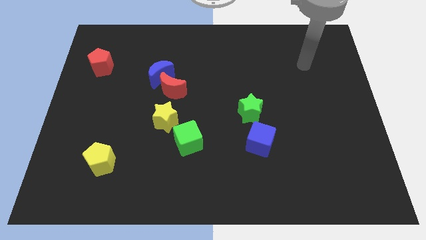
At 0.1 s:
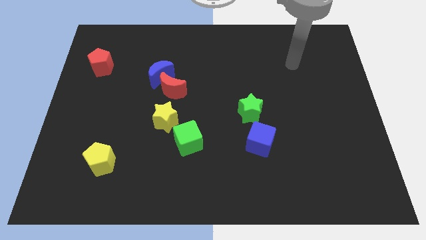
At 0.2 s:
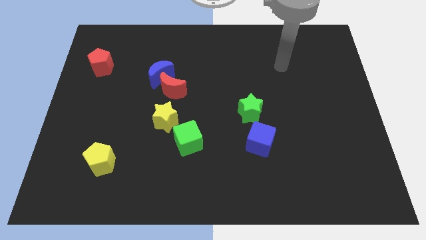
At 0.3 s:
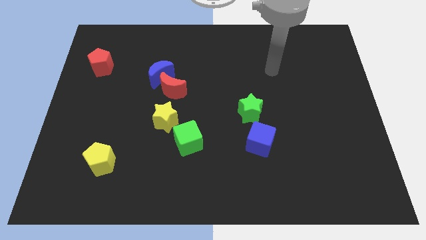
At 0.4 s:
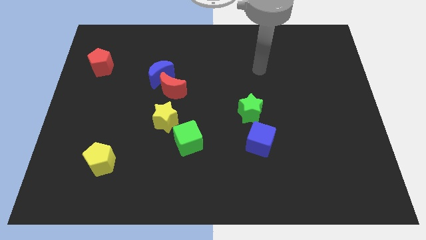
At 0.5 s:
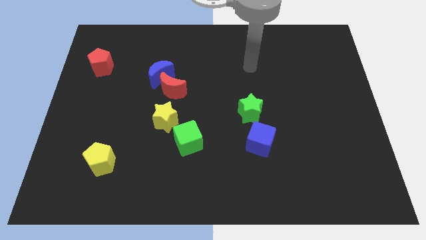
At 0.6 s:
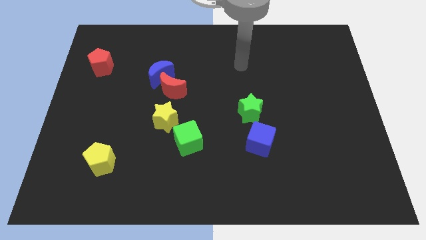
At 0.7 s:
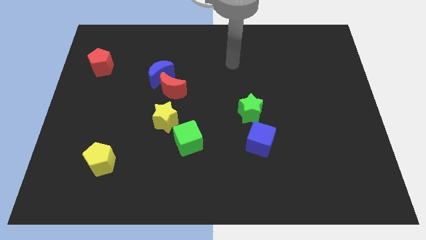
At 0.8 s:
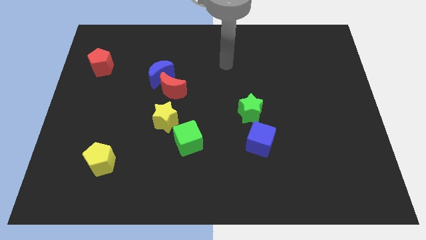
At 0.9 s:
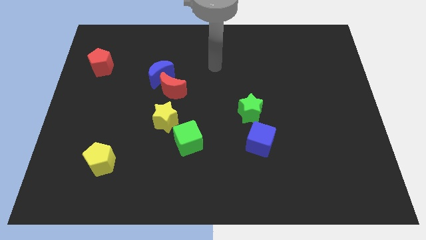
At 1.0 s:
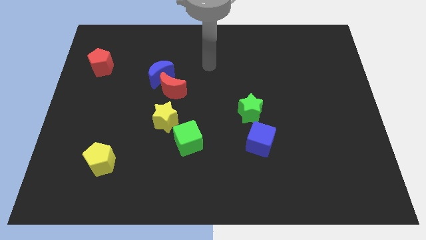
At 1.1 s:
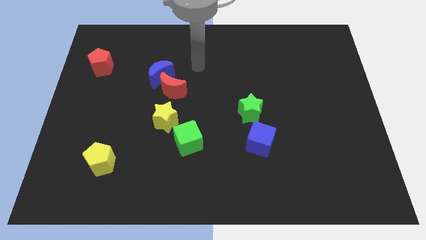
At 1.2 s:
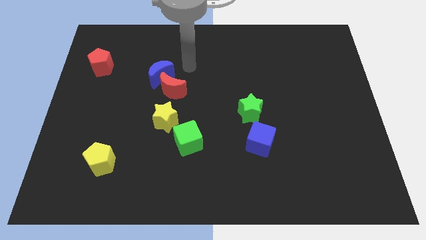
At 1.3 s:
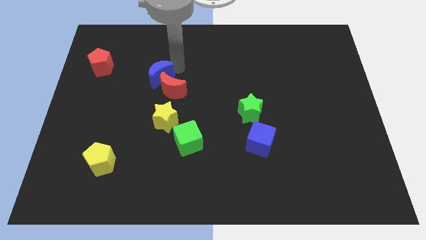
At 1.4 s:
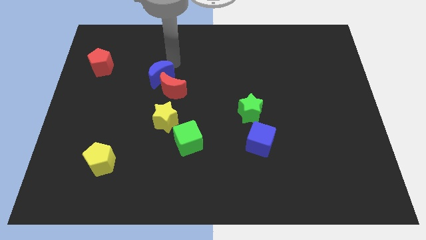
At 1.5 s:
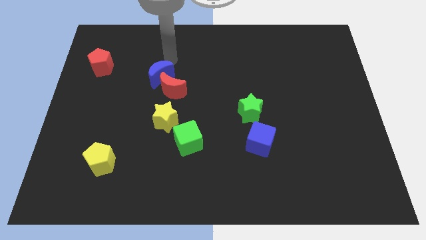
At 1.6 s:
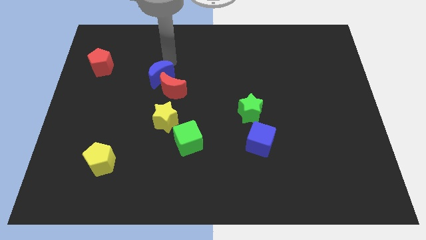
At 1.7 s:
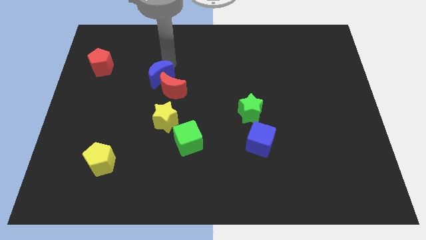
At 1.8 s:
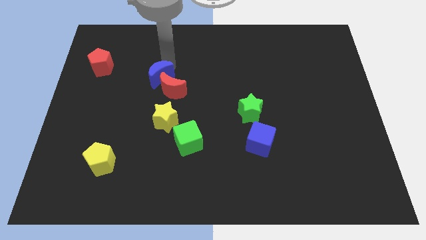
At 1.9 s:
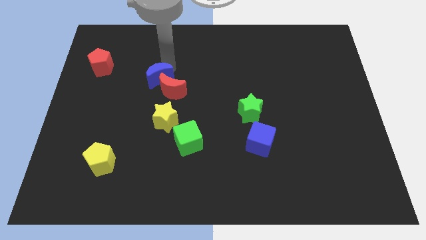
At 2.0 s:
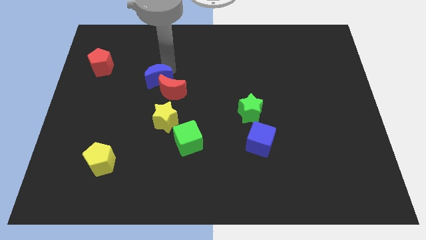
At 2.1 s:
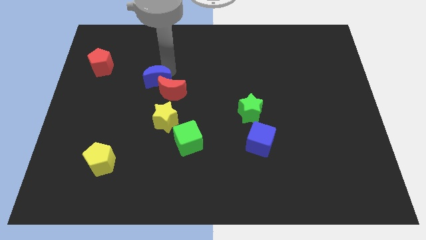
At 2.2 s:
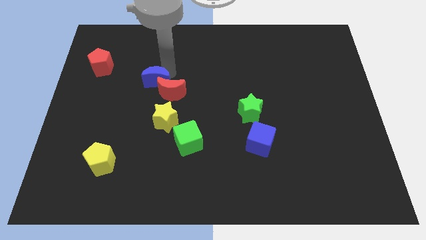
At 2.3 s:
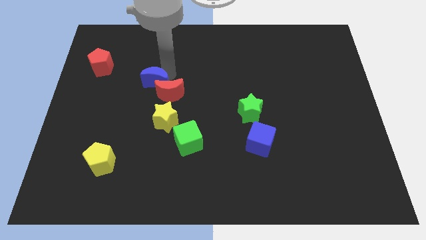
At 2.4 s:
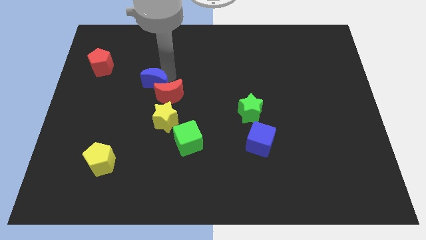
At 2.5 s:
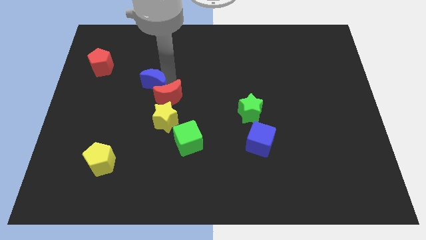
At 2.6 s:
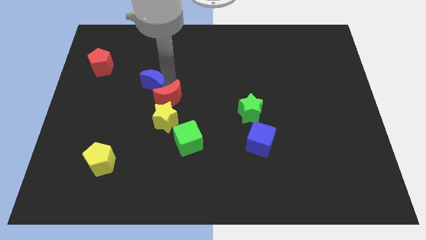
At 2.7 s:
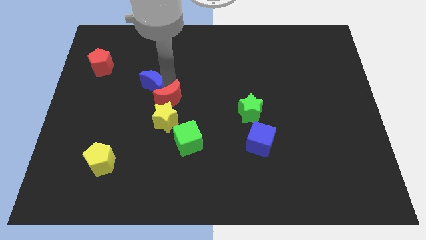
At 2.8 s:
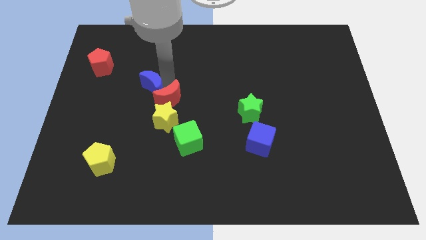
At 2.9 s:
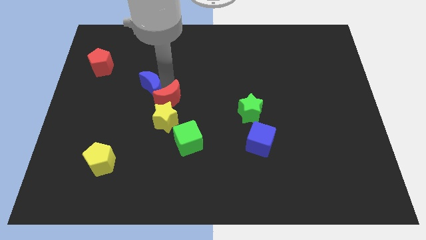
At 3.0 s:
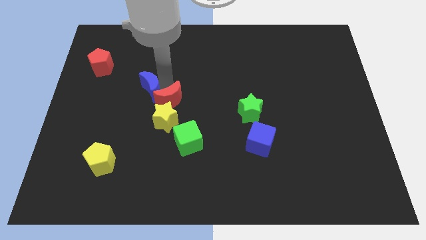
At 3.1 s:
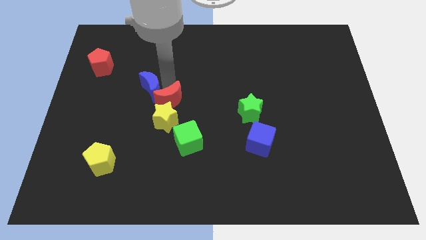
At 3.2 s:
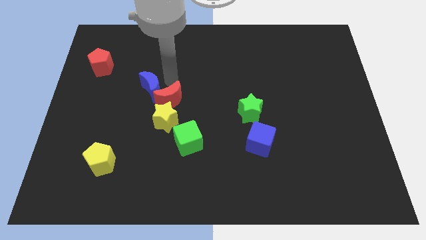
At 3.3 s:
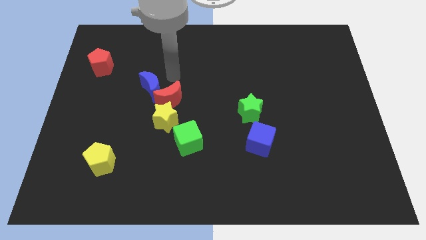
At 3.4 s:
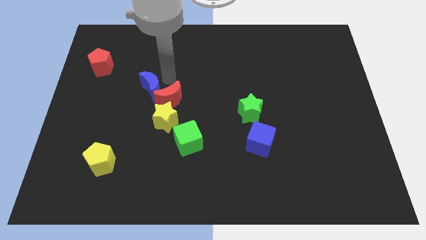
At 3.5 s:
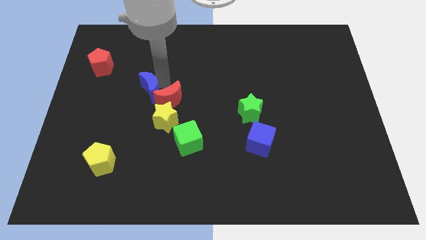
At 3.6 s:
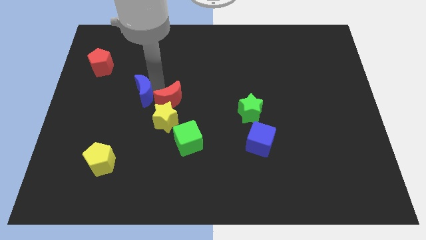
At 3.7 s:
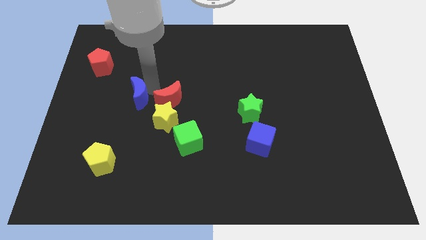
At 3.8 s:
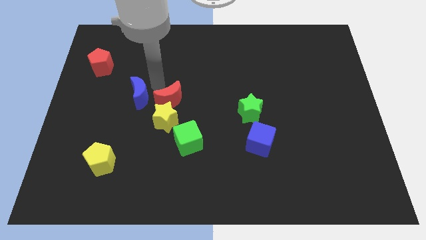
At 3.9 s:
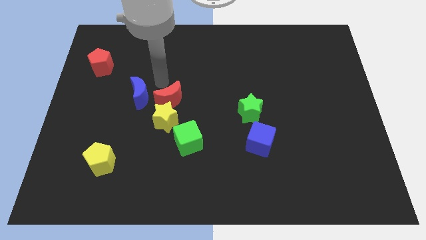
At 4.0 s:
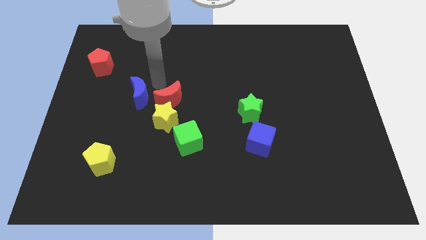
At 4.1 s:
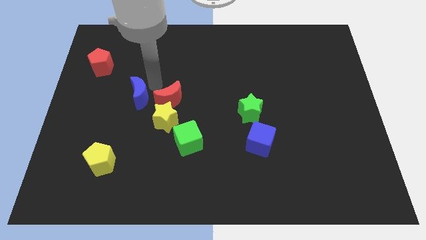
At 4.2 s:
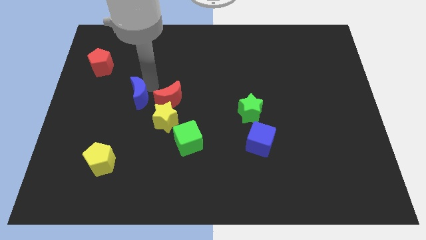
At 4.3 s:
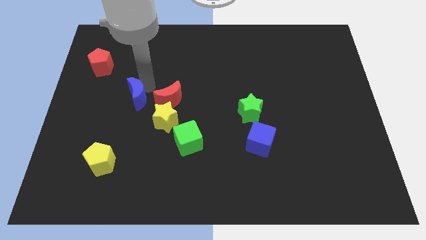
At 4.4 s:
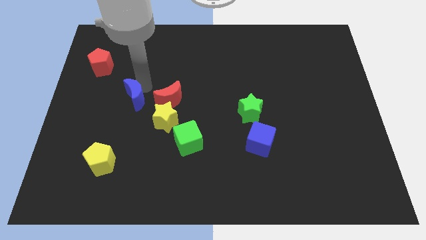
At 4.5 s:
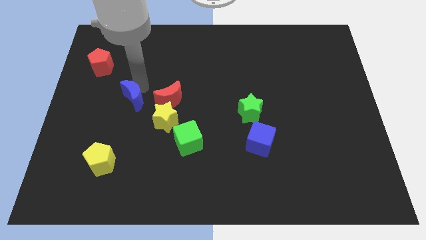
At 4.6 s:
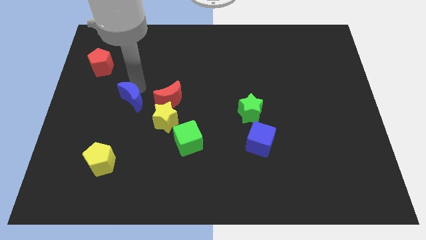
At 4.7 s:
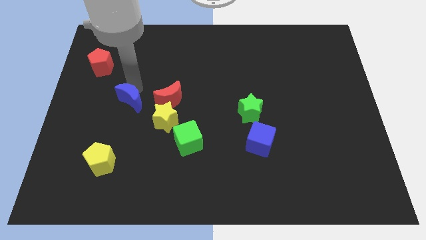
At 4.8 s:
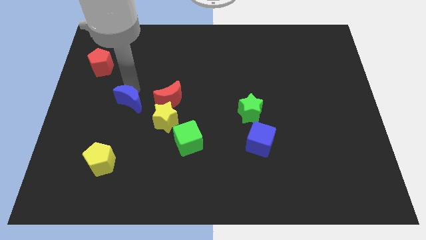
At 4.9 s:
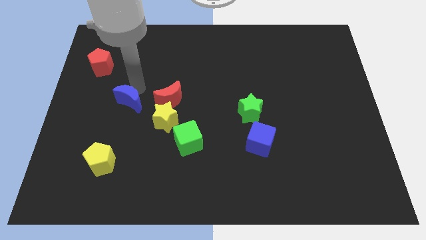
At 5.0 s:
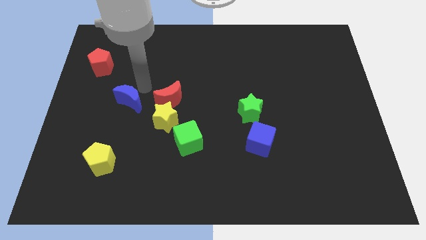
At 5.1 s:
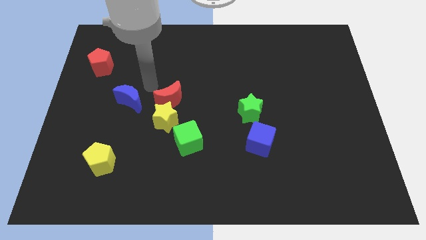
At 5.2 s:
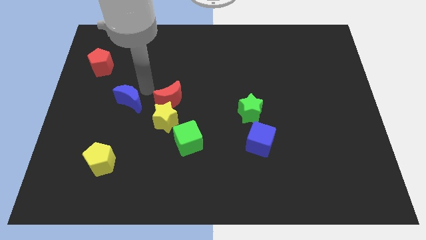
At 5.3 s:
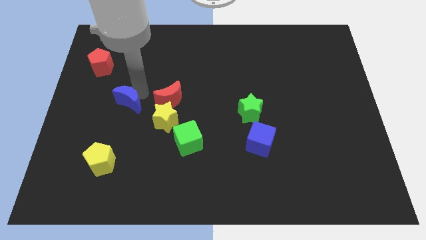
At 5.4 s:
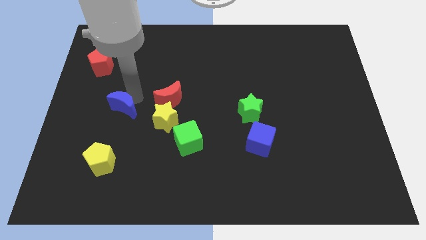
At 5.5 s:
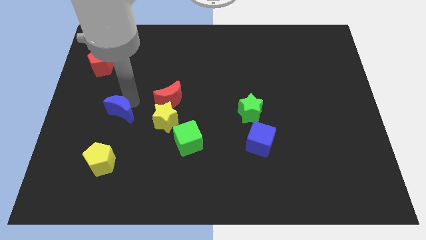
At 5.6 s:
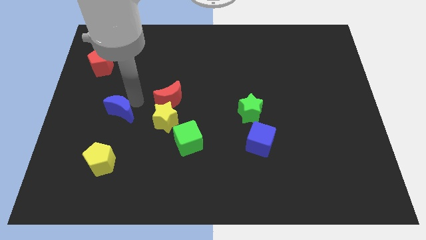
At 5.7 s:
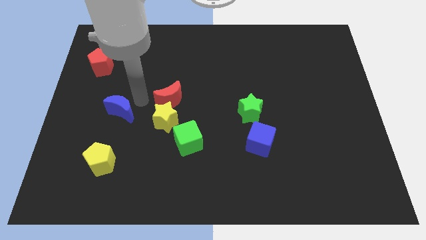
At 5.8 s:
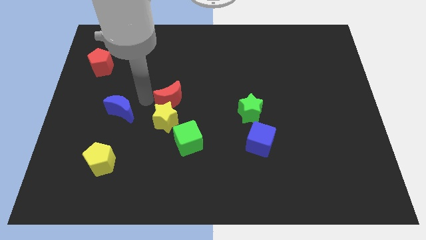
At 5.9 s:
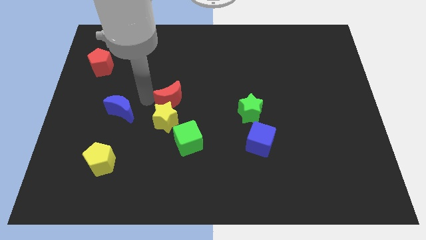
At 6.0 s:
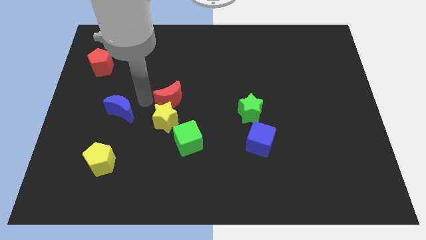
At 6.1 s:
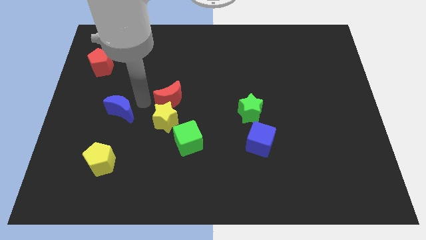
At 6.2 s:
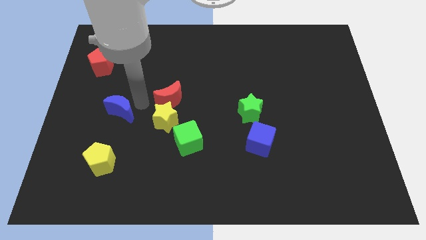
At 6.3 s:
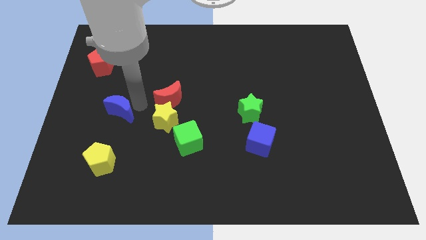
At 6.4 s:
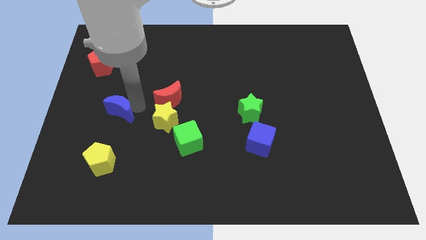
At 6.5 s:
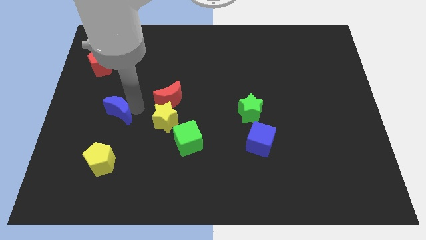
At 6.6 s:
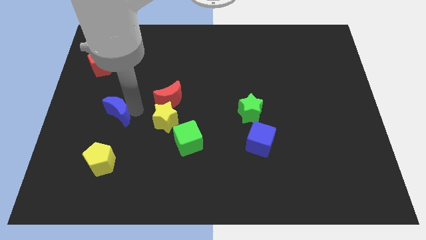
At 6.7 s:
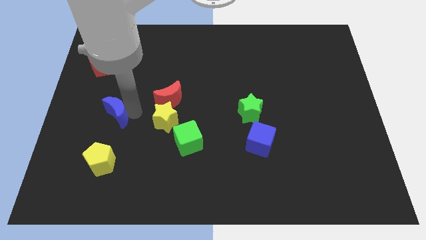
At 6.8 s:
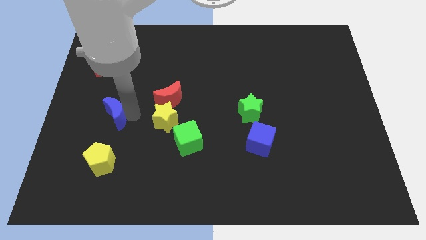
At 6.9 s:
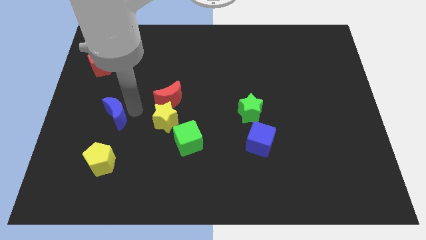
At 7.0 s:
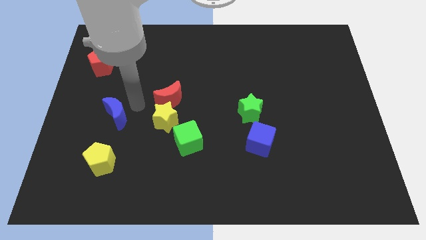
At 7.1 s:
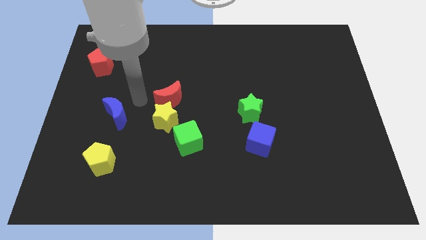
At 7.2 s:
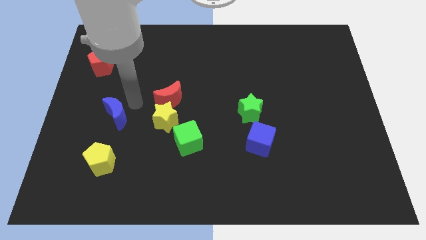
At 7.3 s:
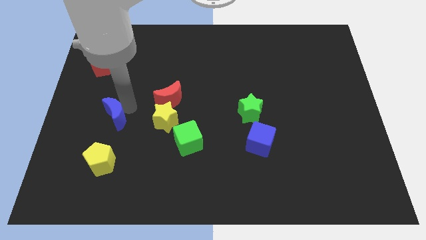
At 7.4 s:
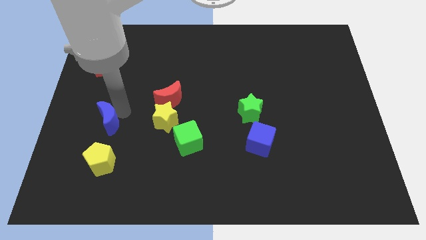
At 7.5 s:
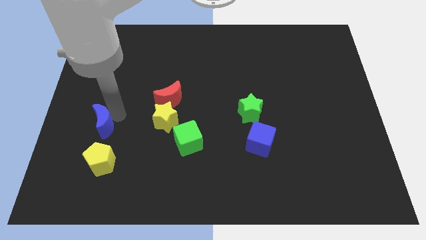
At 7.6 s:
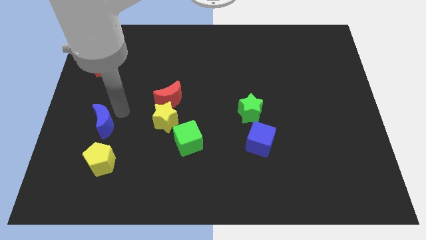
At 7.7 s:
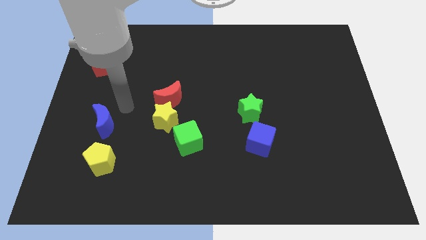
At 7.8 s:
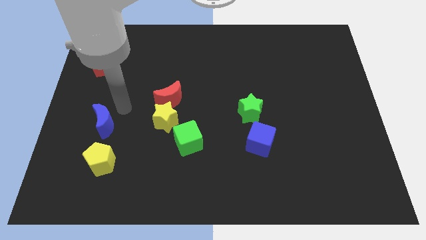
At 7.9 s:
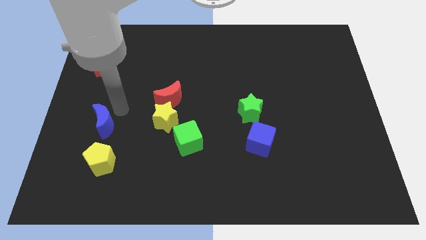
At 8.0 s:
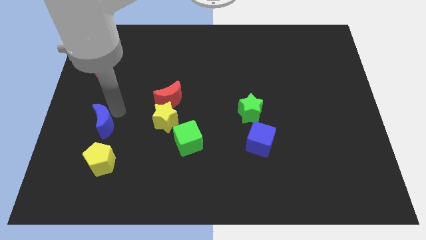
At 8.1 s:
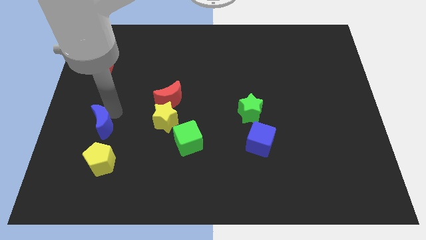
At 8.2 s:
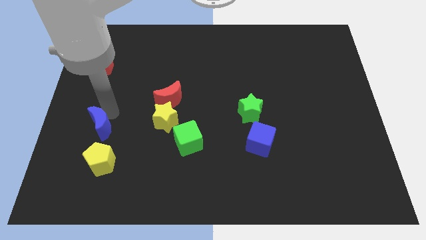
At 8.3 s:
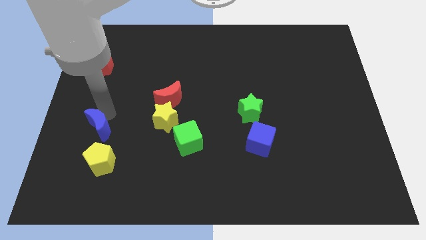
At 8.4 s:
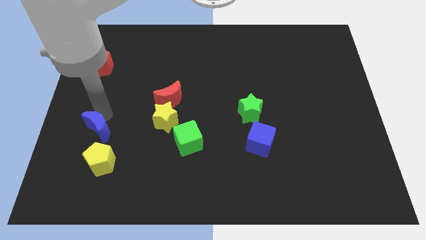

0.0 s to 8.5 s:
put the blue moon to the top left of the yellow pentagon
